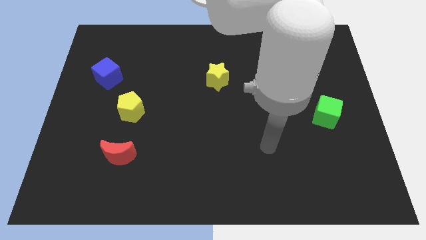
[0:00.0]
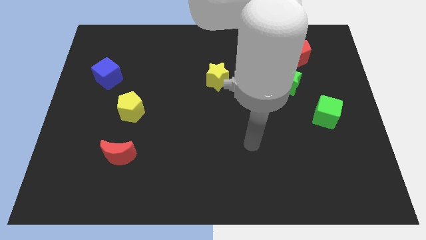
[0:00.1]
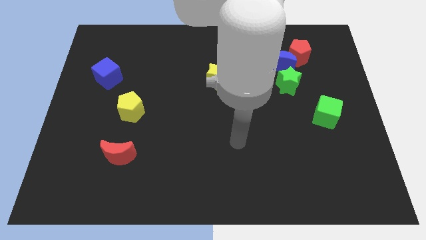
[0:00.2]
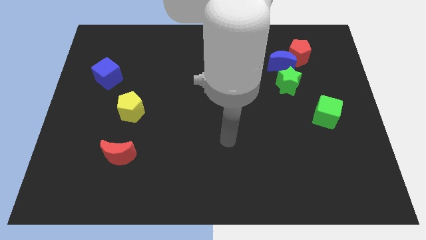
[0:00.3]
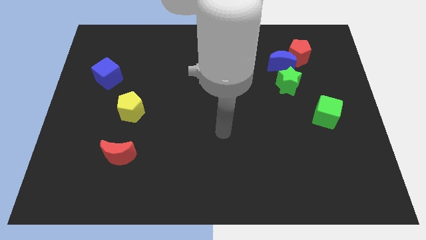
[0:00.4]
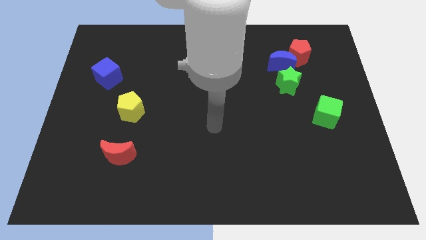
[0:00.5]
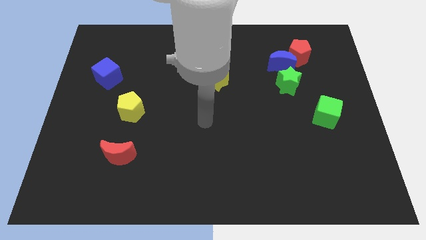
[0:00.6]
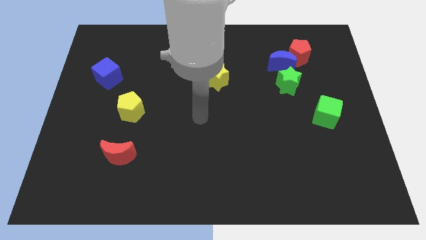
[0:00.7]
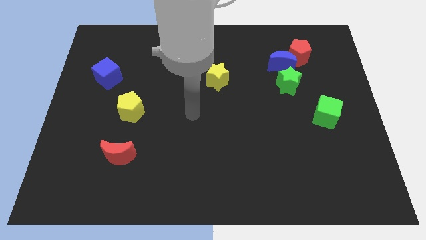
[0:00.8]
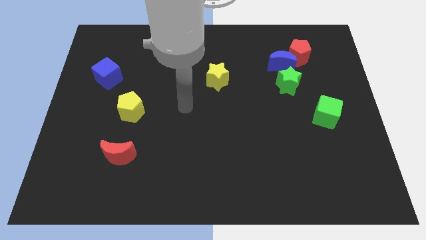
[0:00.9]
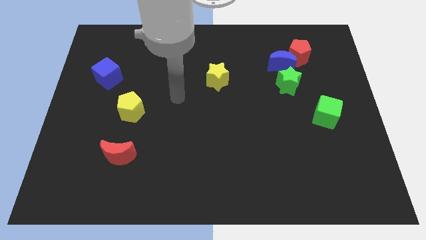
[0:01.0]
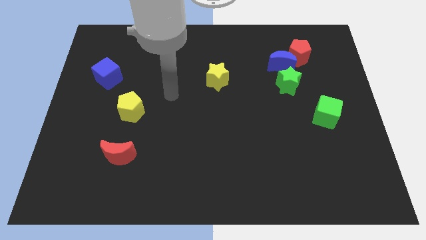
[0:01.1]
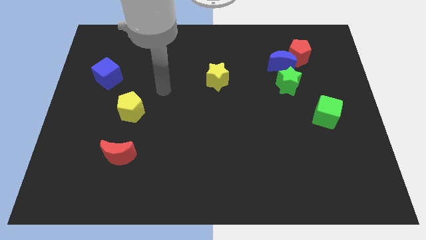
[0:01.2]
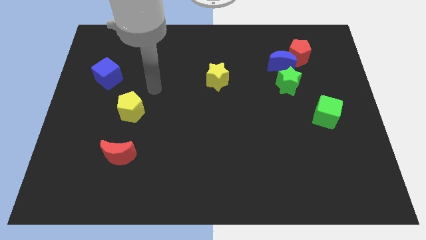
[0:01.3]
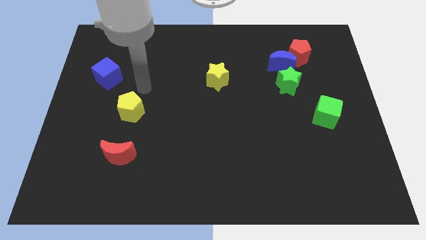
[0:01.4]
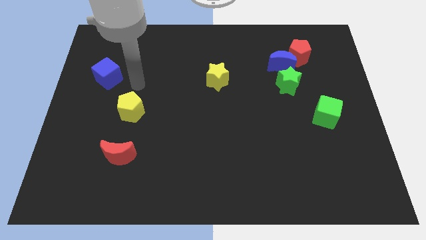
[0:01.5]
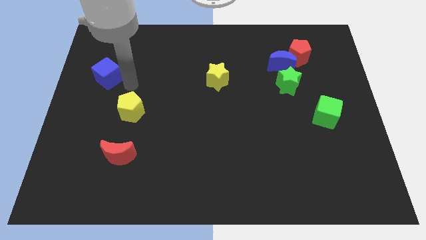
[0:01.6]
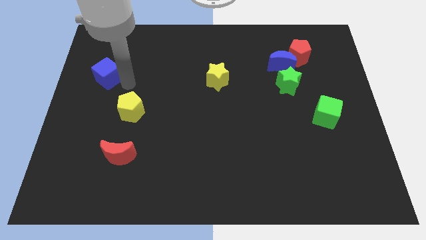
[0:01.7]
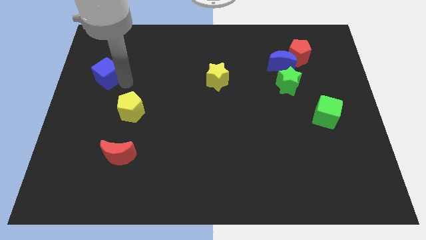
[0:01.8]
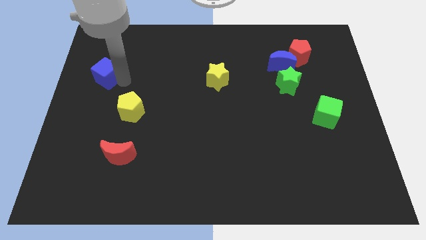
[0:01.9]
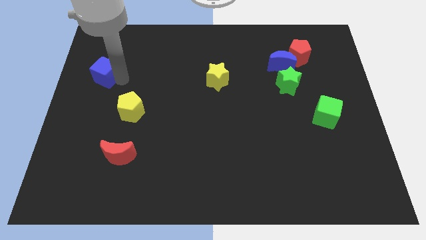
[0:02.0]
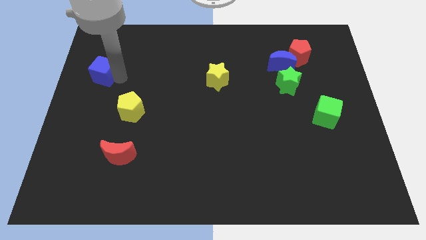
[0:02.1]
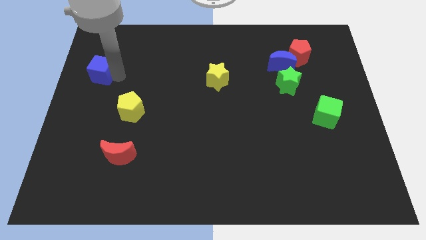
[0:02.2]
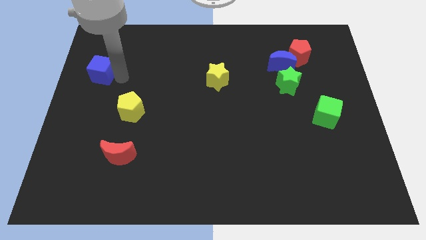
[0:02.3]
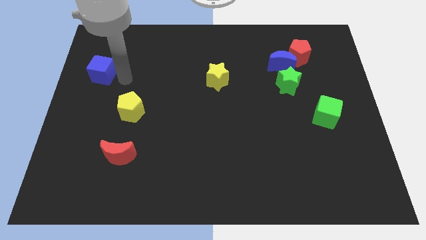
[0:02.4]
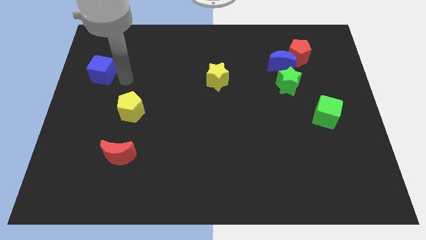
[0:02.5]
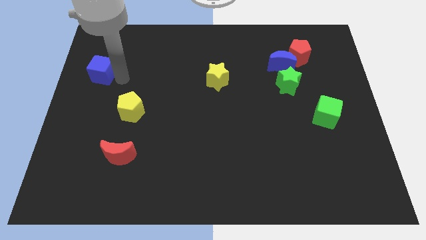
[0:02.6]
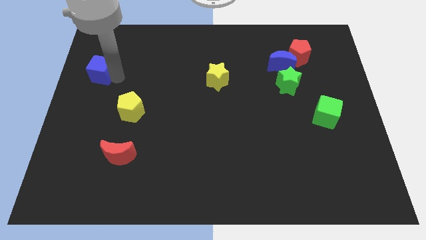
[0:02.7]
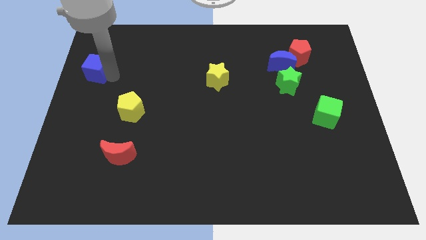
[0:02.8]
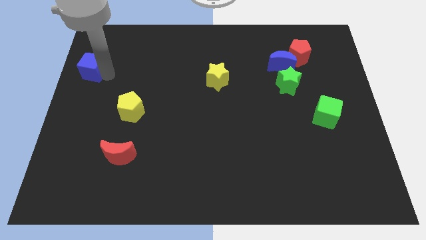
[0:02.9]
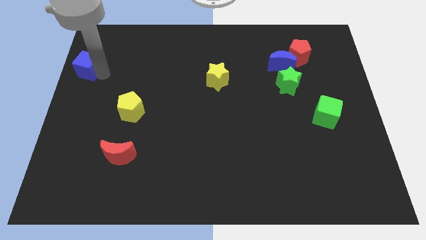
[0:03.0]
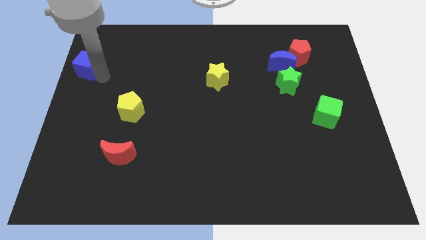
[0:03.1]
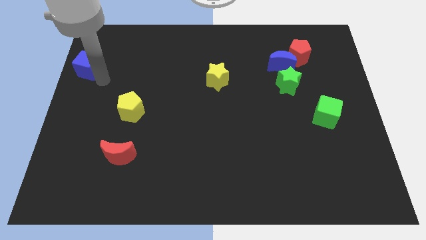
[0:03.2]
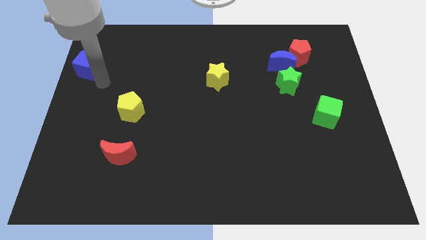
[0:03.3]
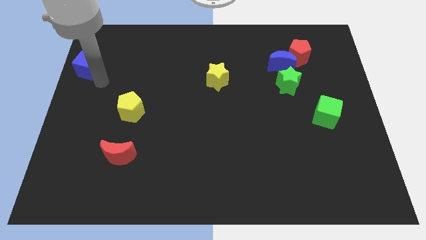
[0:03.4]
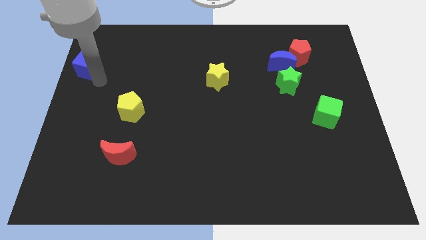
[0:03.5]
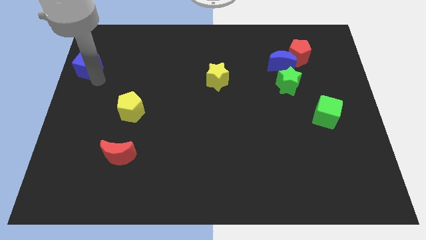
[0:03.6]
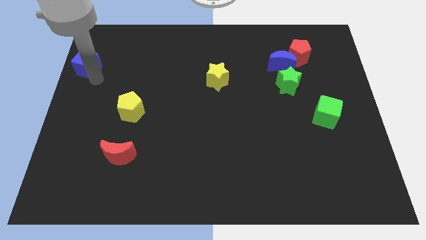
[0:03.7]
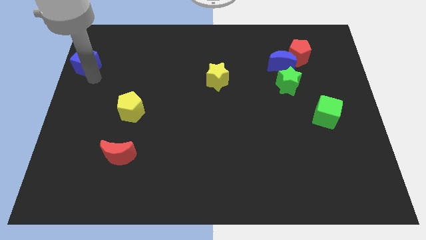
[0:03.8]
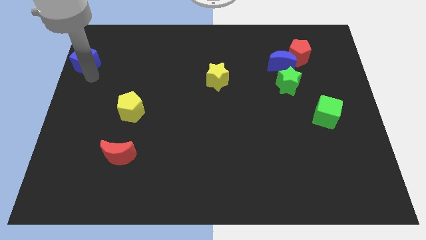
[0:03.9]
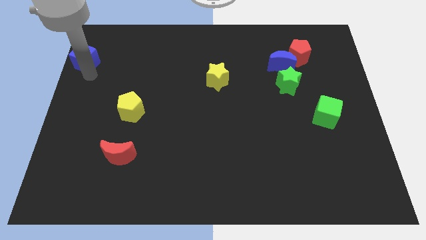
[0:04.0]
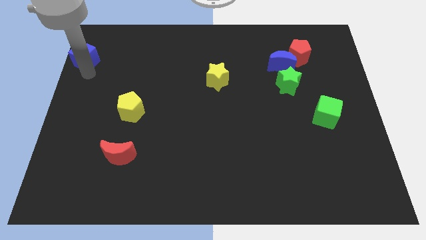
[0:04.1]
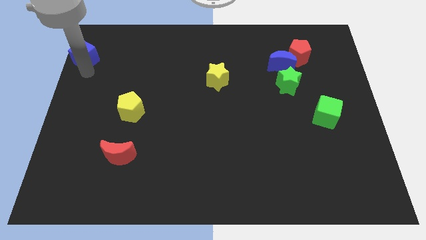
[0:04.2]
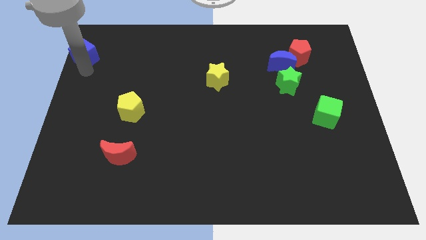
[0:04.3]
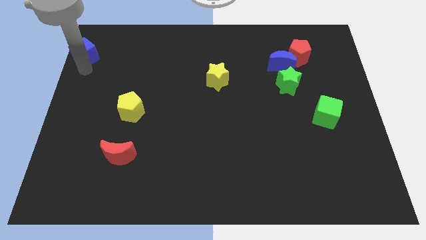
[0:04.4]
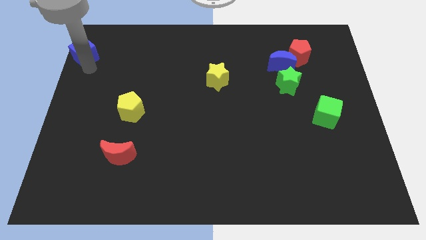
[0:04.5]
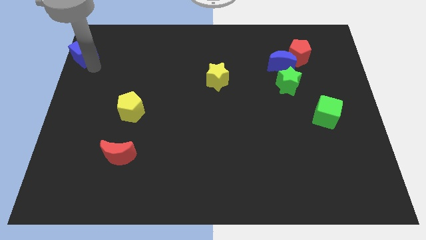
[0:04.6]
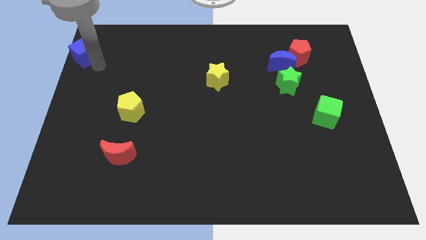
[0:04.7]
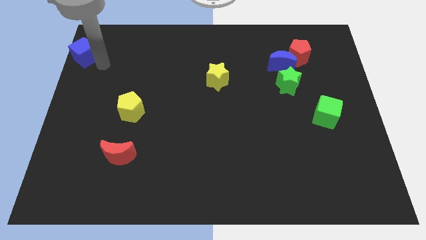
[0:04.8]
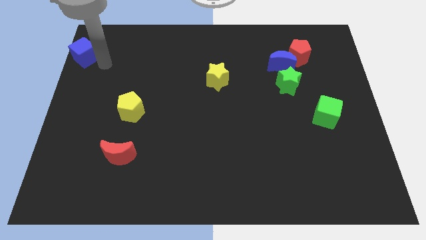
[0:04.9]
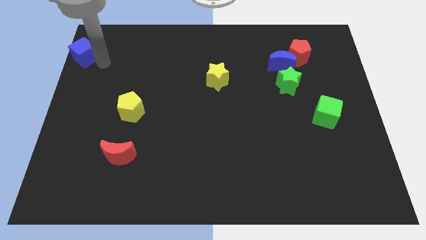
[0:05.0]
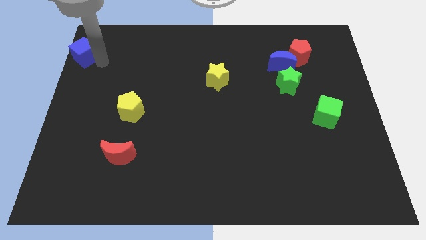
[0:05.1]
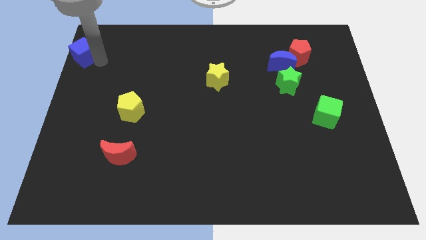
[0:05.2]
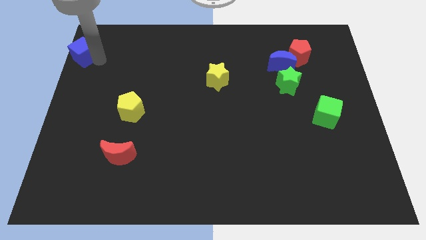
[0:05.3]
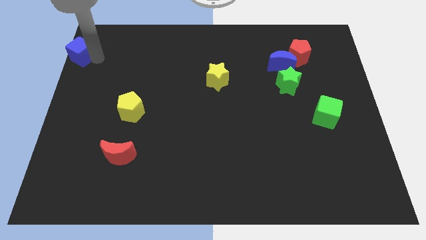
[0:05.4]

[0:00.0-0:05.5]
slide the blue cube to the upper left corner

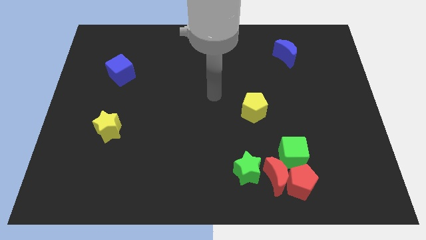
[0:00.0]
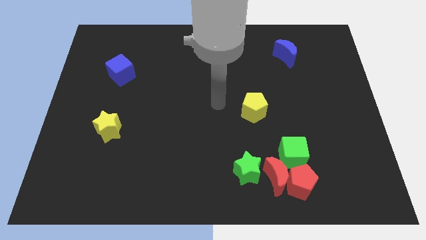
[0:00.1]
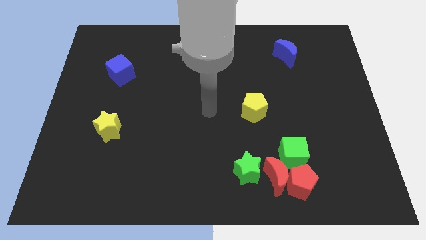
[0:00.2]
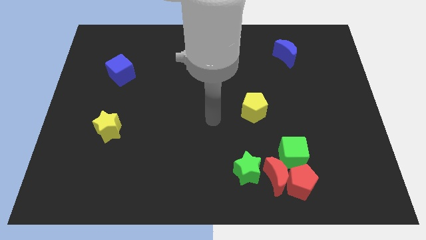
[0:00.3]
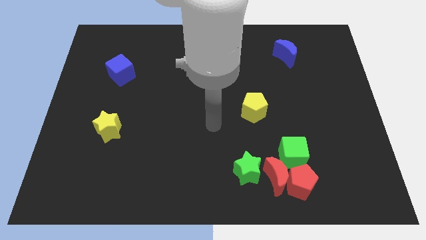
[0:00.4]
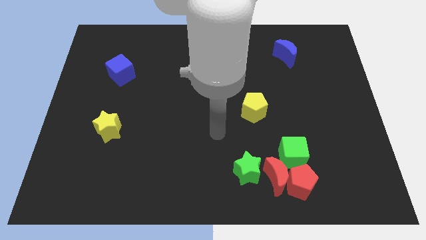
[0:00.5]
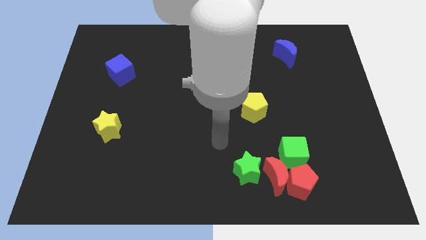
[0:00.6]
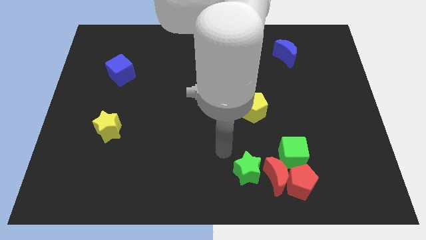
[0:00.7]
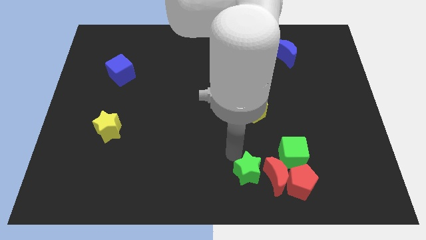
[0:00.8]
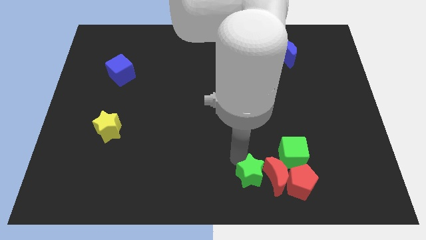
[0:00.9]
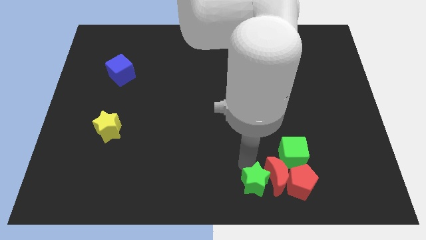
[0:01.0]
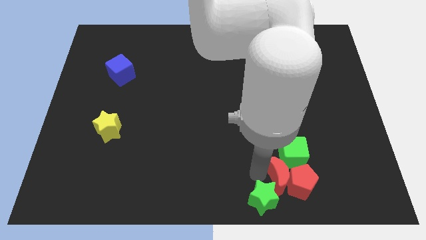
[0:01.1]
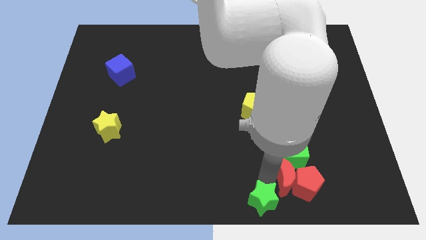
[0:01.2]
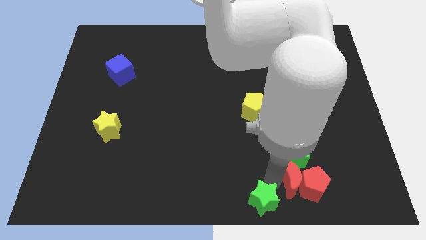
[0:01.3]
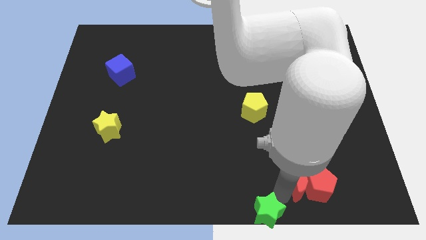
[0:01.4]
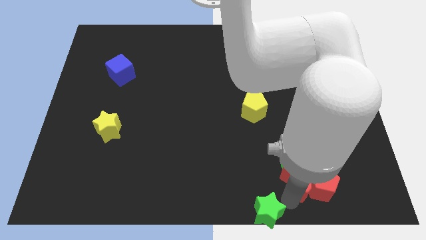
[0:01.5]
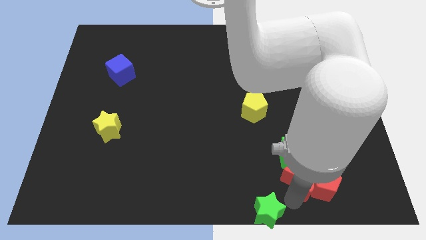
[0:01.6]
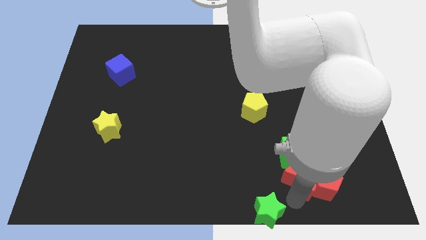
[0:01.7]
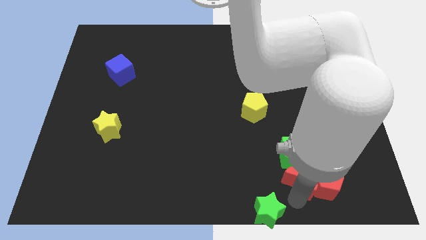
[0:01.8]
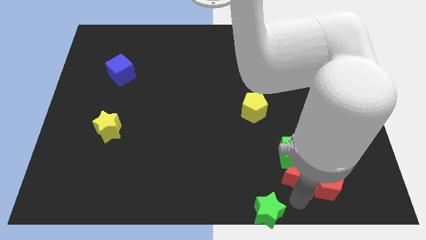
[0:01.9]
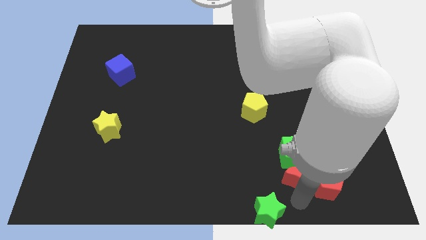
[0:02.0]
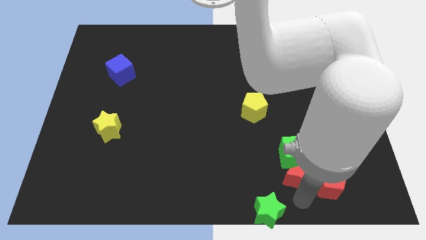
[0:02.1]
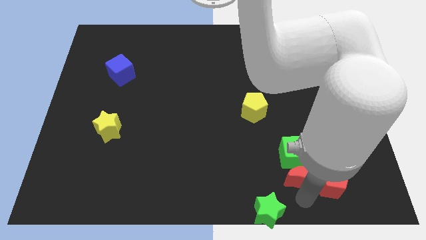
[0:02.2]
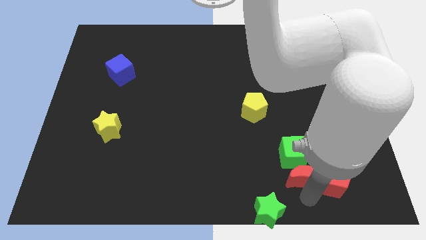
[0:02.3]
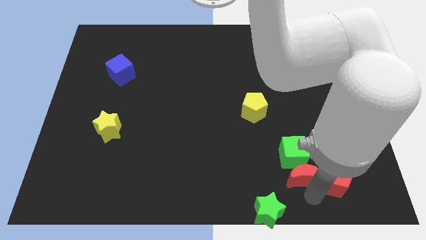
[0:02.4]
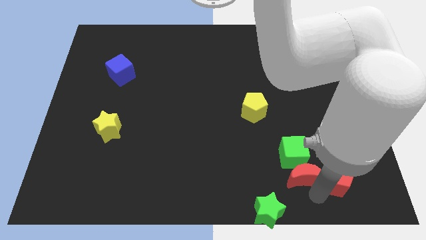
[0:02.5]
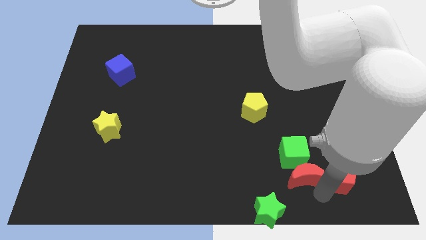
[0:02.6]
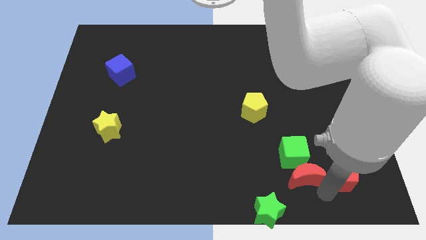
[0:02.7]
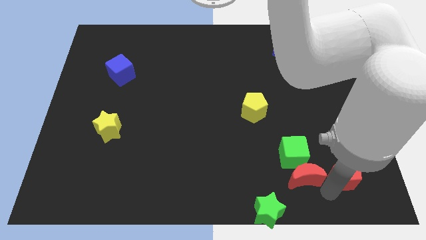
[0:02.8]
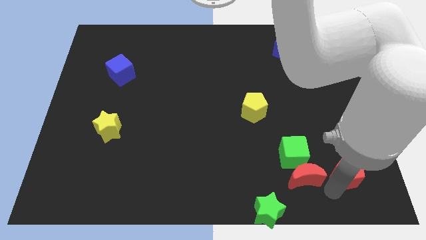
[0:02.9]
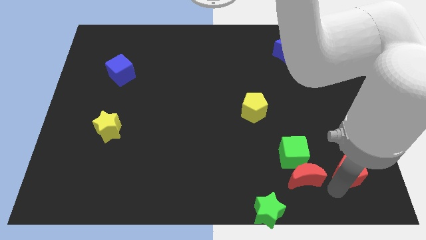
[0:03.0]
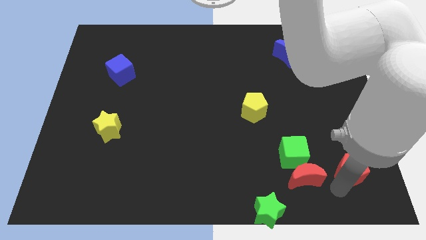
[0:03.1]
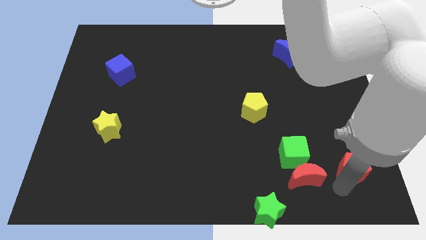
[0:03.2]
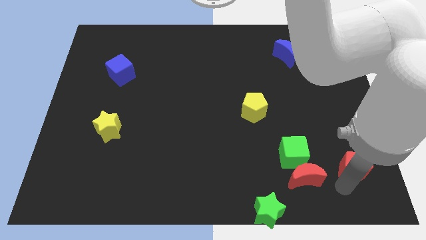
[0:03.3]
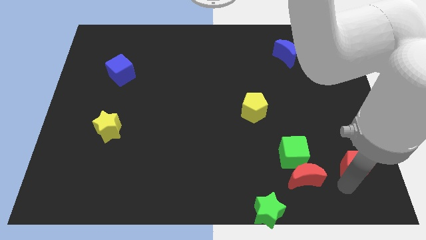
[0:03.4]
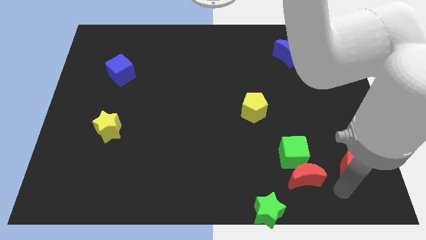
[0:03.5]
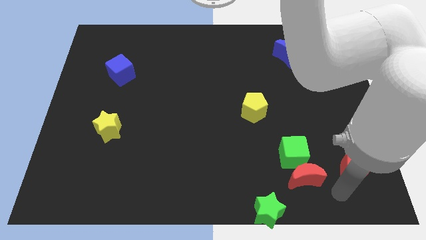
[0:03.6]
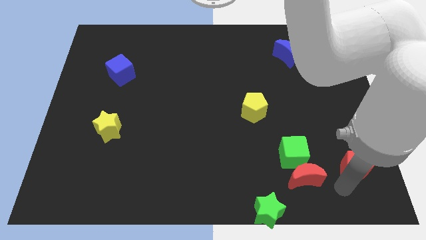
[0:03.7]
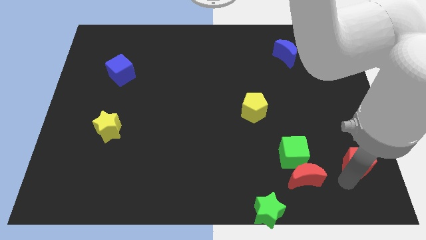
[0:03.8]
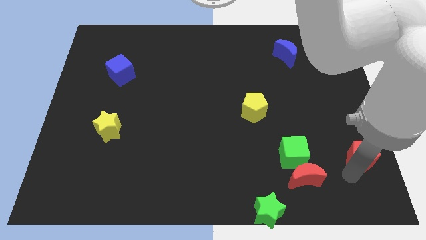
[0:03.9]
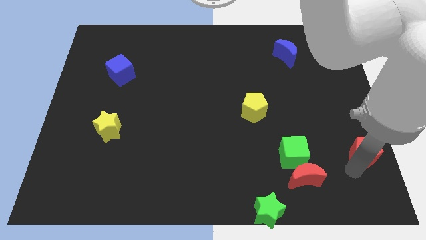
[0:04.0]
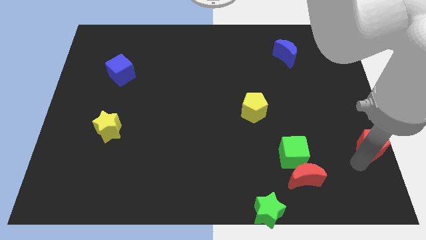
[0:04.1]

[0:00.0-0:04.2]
put the red pentagon to the right side of the board
